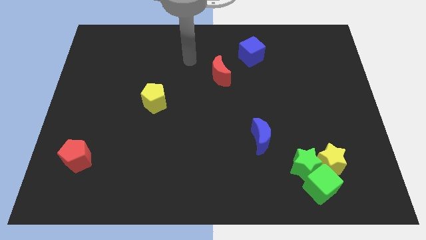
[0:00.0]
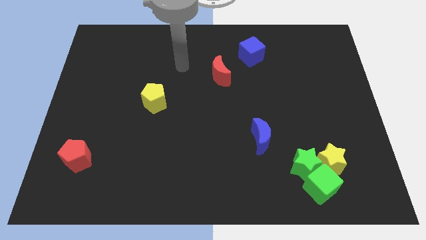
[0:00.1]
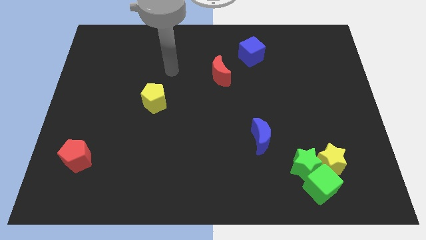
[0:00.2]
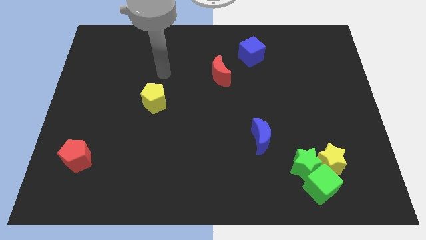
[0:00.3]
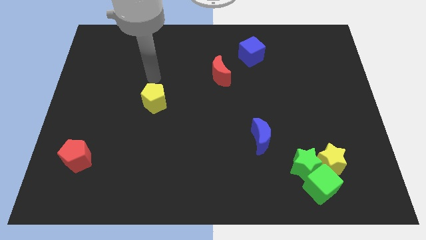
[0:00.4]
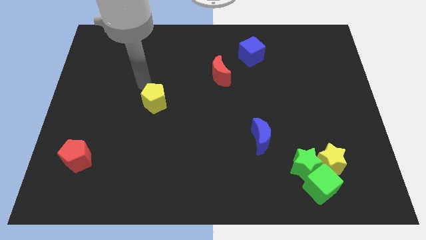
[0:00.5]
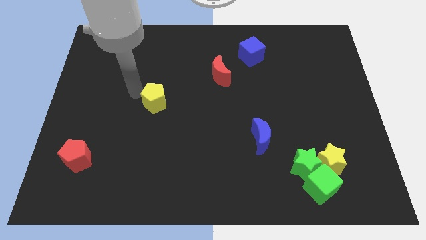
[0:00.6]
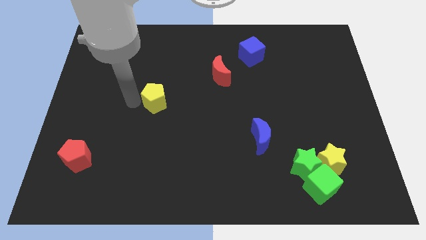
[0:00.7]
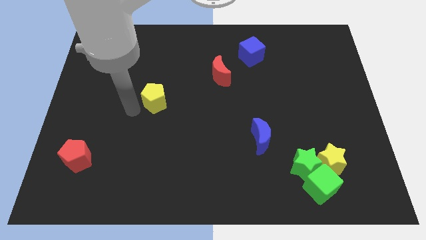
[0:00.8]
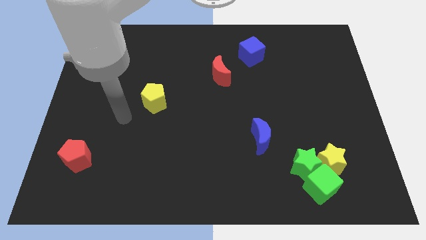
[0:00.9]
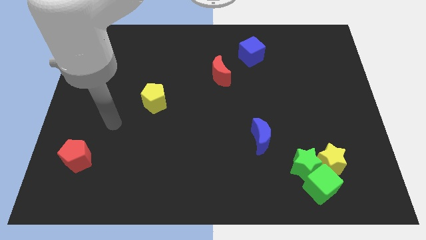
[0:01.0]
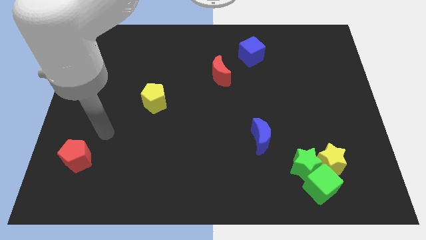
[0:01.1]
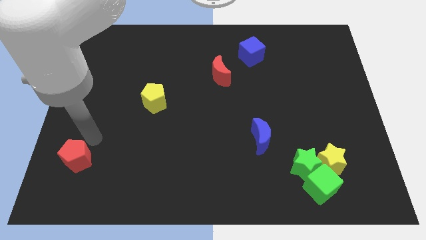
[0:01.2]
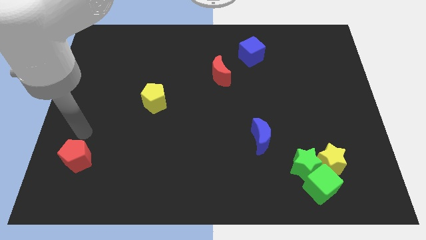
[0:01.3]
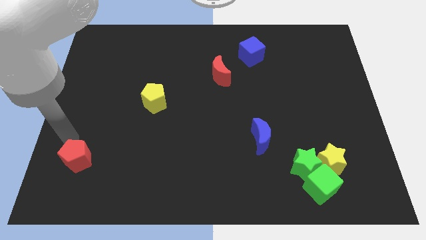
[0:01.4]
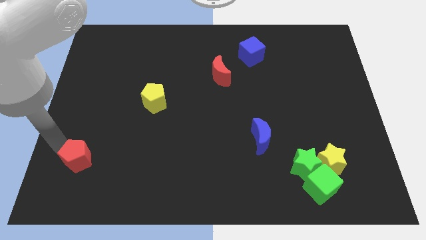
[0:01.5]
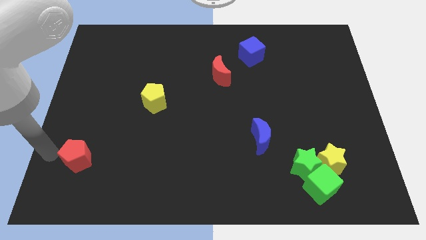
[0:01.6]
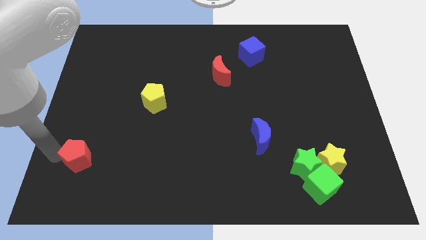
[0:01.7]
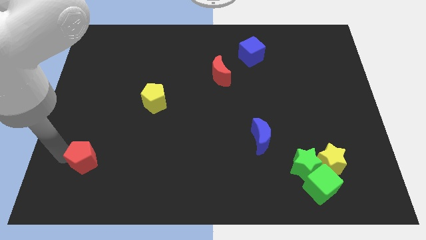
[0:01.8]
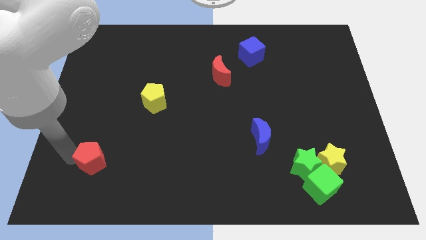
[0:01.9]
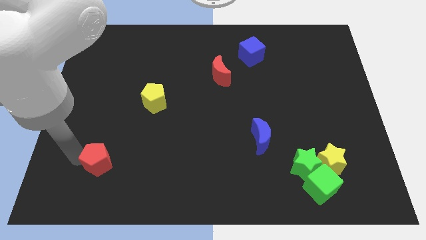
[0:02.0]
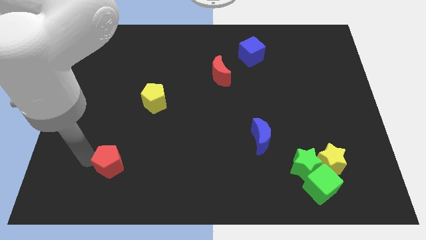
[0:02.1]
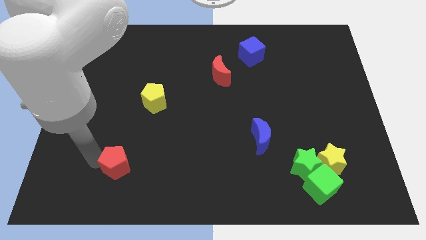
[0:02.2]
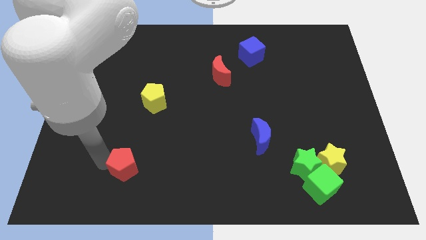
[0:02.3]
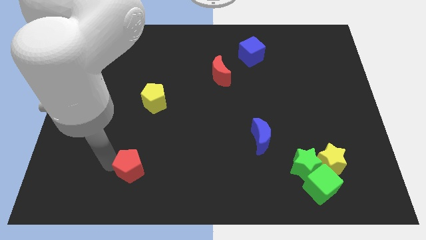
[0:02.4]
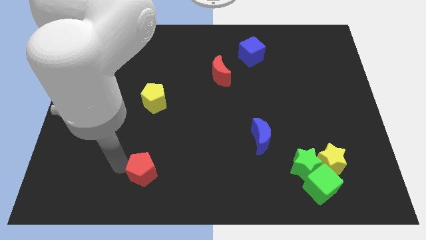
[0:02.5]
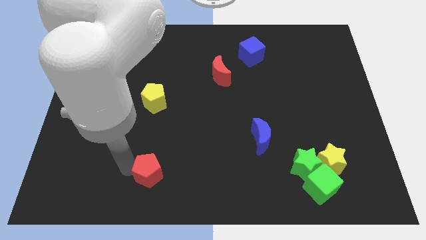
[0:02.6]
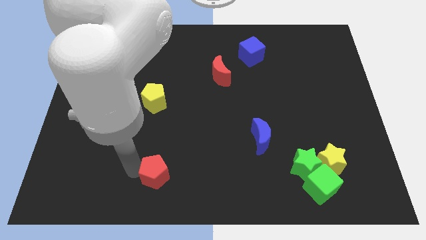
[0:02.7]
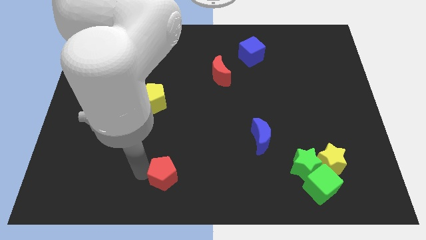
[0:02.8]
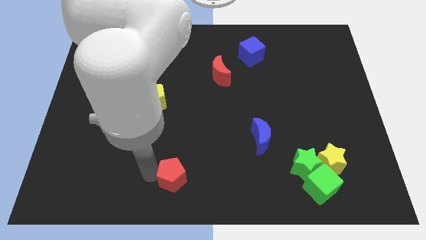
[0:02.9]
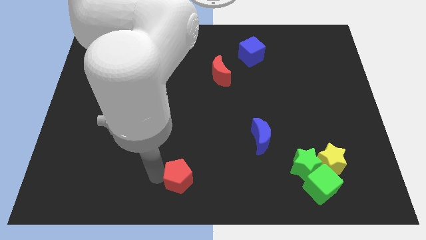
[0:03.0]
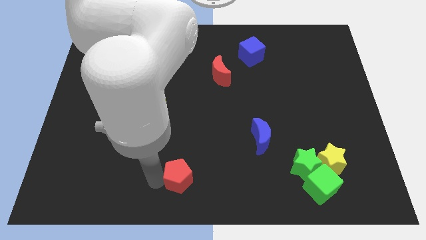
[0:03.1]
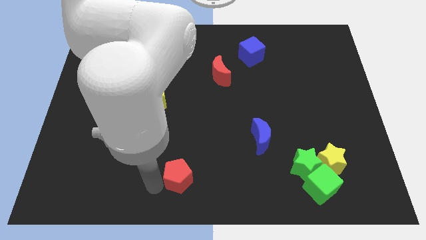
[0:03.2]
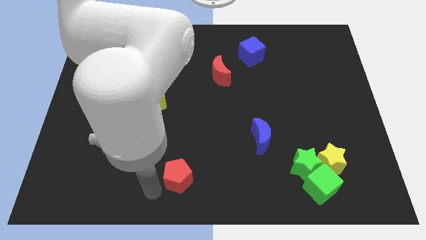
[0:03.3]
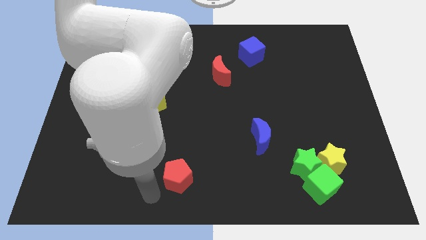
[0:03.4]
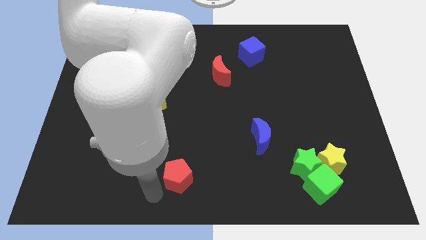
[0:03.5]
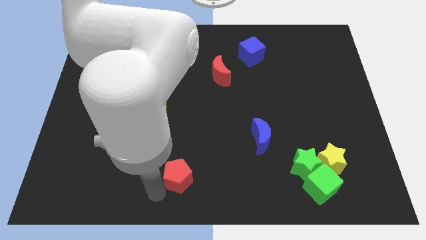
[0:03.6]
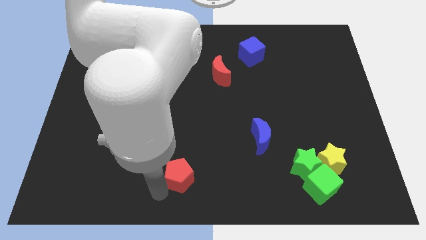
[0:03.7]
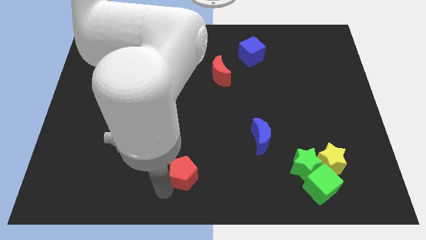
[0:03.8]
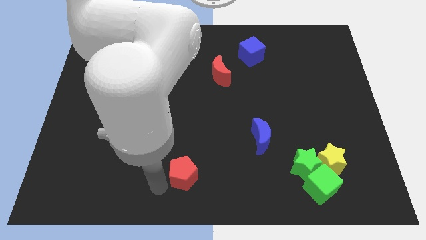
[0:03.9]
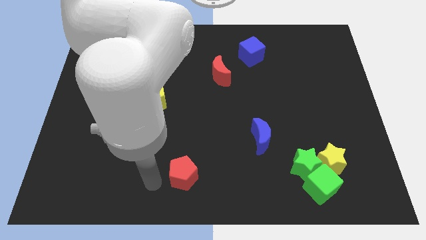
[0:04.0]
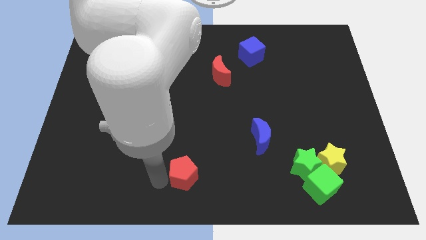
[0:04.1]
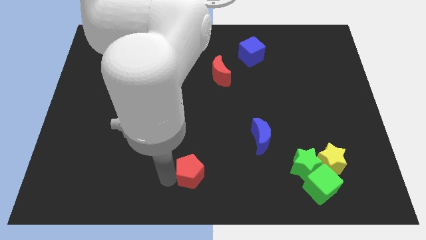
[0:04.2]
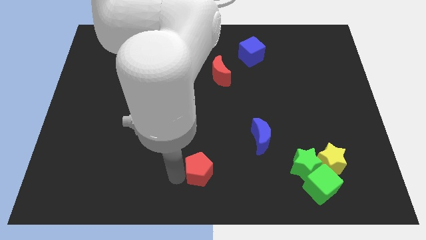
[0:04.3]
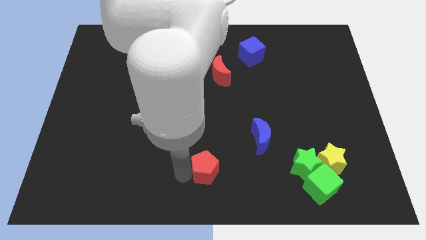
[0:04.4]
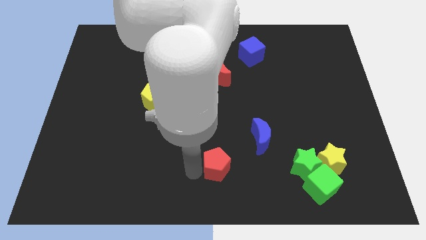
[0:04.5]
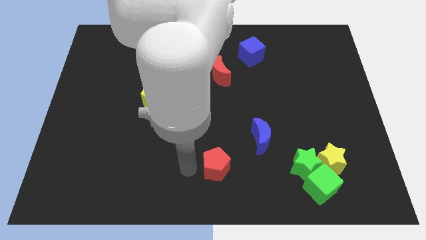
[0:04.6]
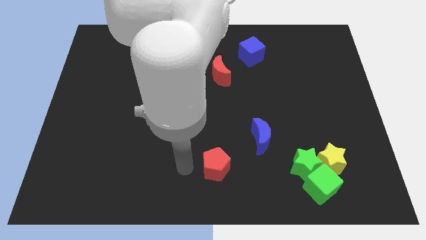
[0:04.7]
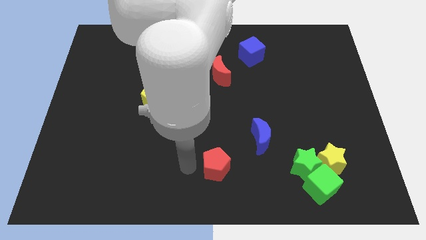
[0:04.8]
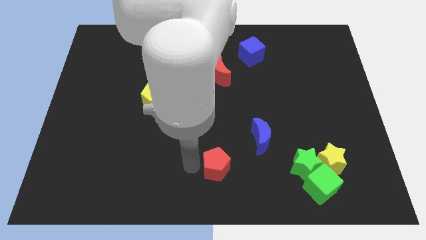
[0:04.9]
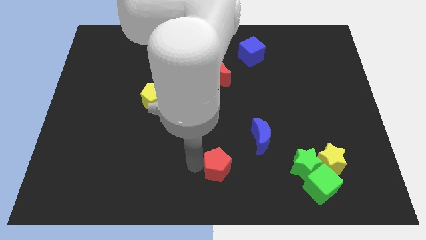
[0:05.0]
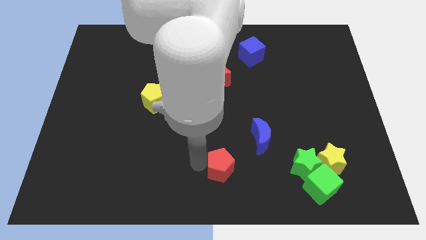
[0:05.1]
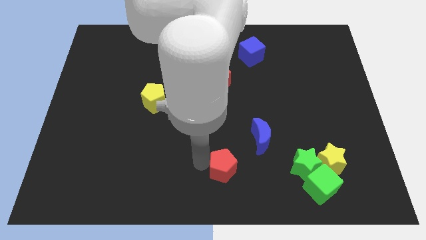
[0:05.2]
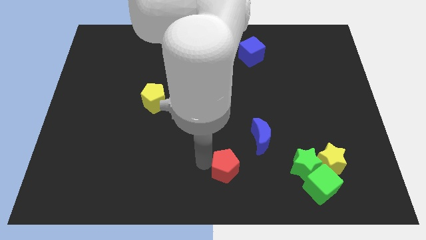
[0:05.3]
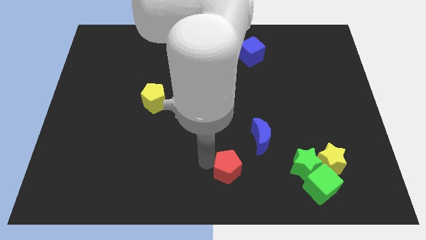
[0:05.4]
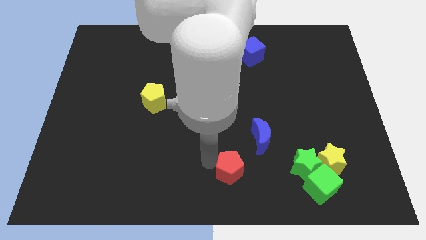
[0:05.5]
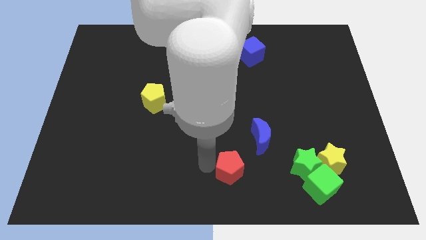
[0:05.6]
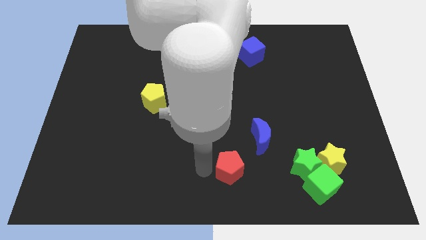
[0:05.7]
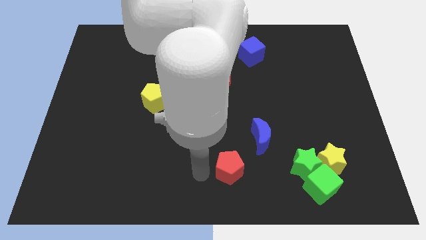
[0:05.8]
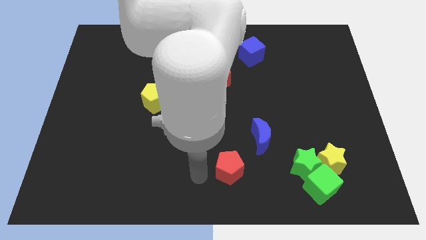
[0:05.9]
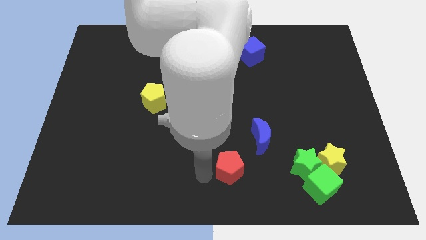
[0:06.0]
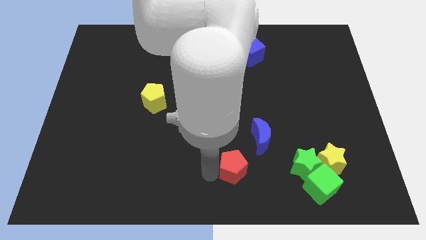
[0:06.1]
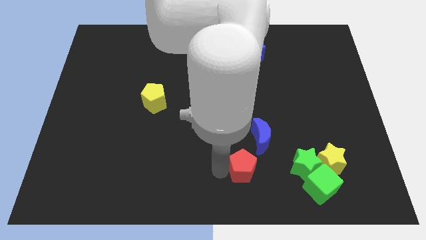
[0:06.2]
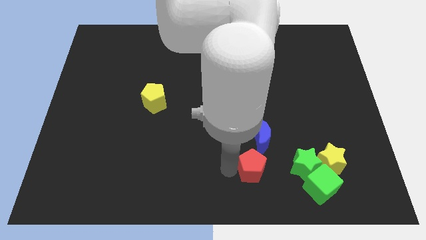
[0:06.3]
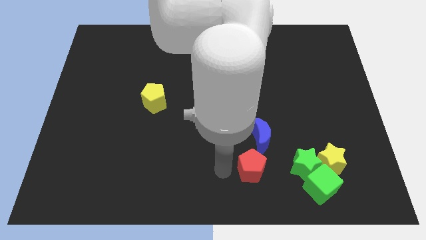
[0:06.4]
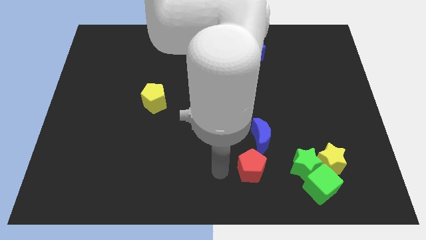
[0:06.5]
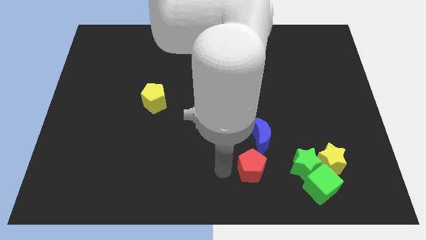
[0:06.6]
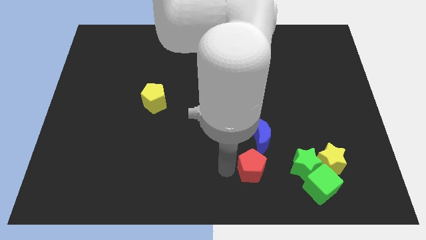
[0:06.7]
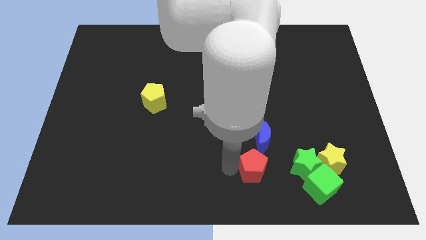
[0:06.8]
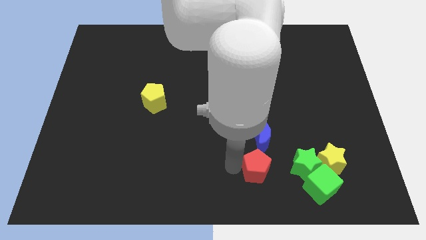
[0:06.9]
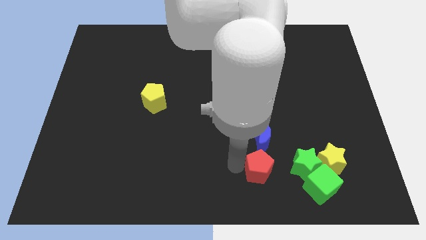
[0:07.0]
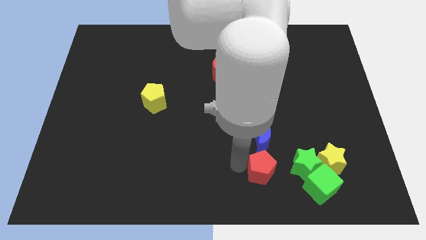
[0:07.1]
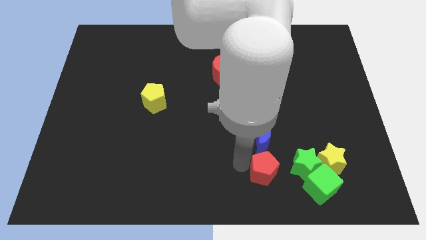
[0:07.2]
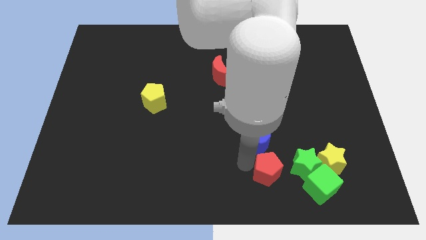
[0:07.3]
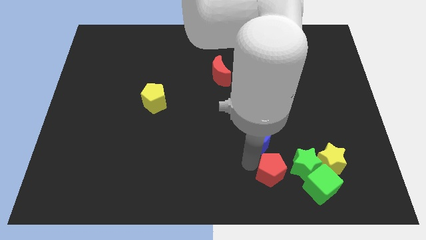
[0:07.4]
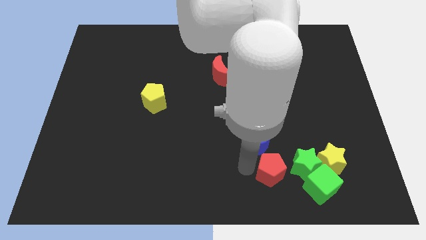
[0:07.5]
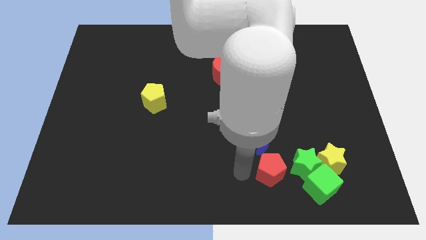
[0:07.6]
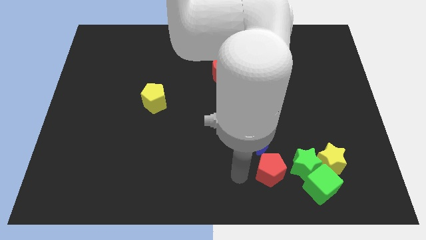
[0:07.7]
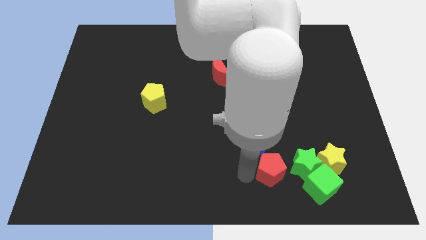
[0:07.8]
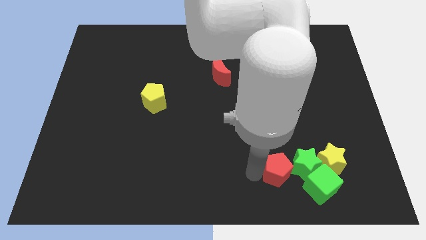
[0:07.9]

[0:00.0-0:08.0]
move the red pentagon close to the green star

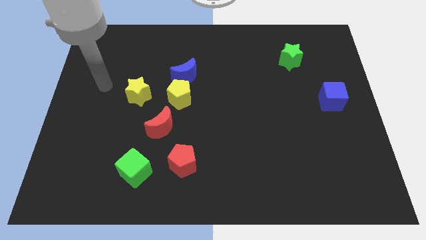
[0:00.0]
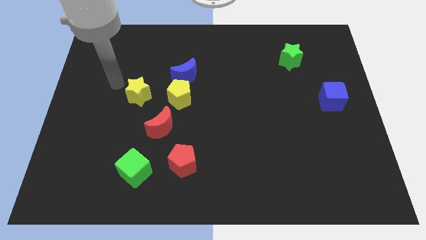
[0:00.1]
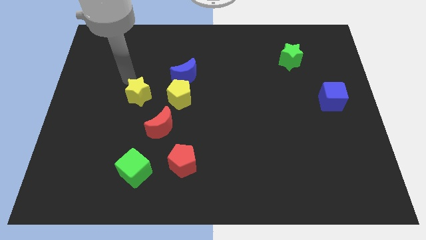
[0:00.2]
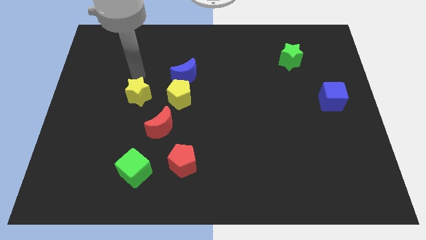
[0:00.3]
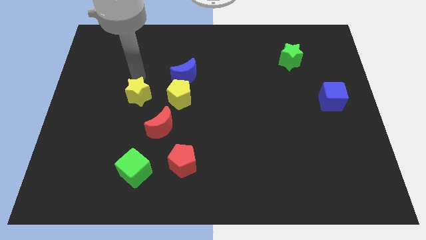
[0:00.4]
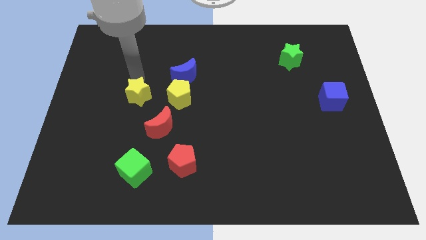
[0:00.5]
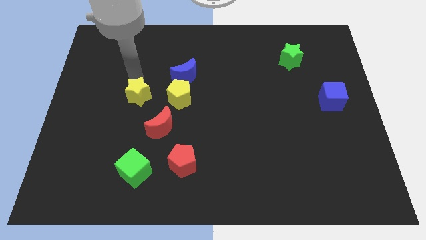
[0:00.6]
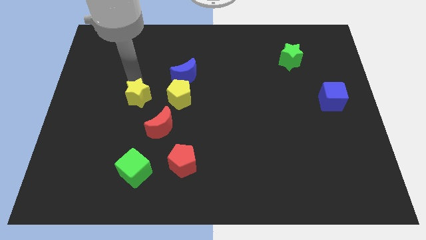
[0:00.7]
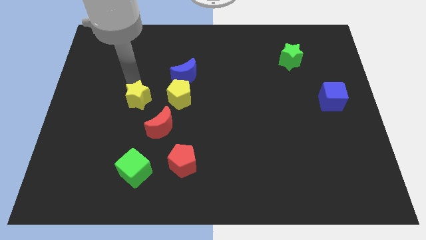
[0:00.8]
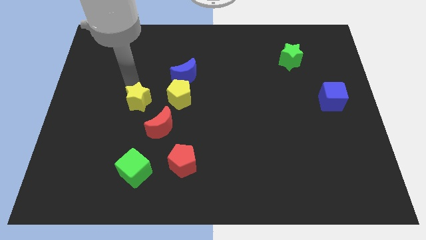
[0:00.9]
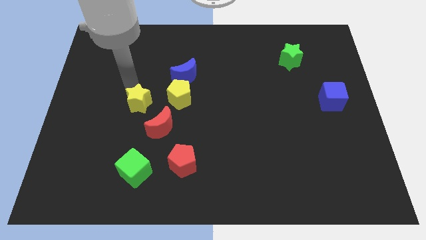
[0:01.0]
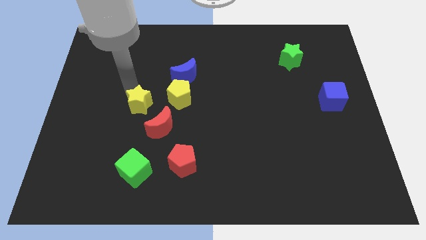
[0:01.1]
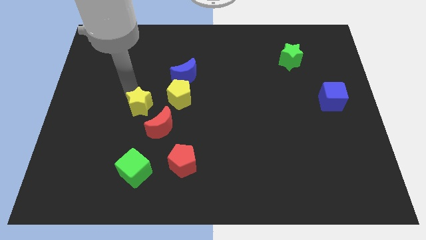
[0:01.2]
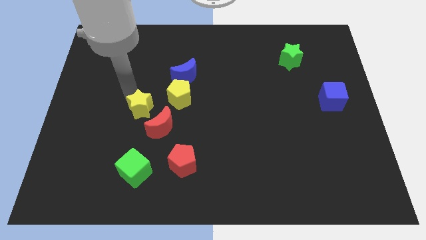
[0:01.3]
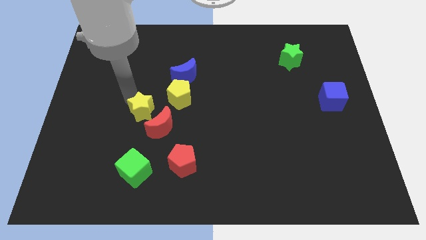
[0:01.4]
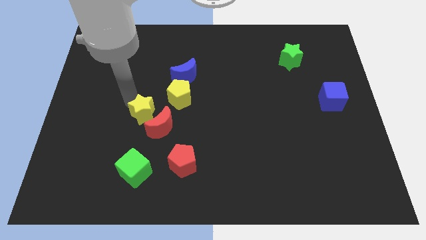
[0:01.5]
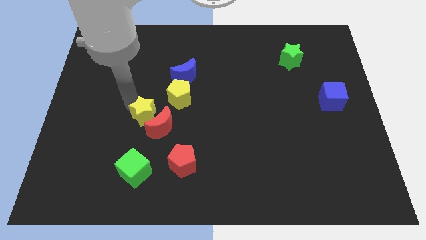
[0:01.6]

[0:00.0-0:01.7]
move the yellow star to the red moon
